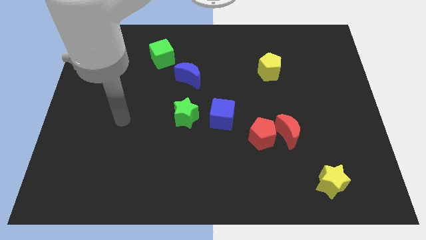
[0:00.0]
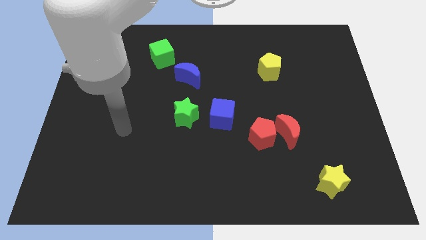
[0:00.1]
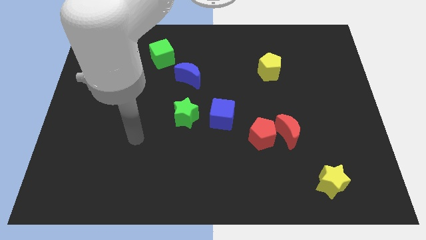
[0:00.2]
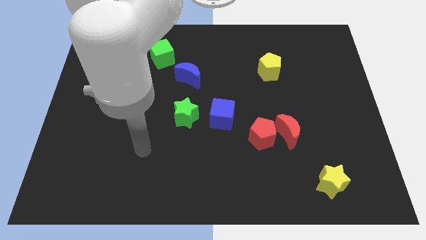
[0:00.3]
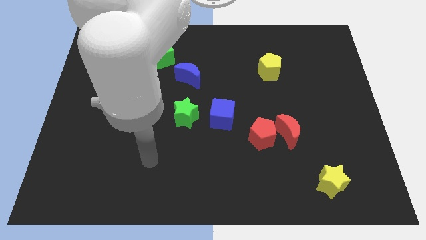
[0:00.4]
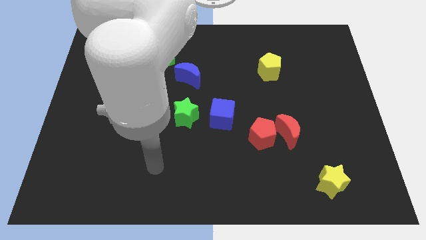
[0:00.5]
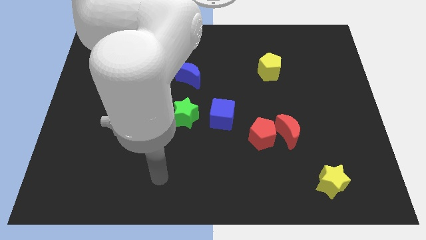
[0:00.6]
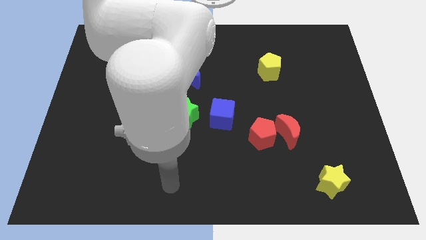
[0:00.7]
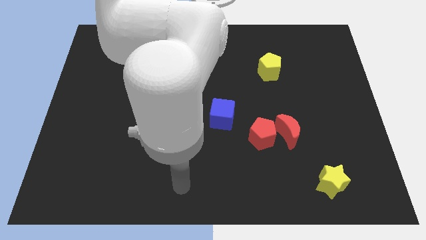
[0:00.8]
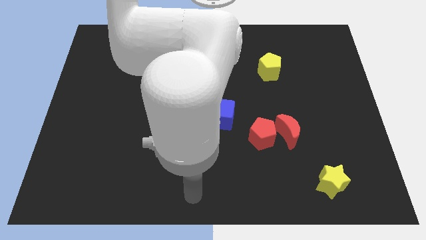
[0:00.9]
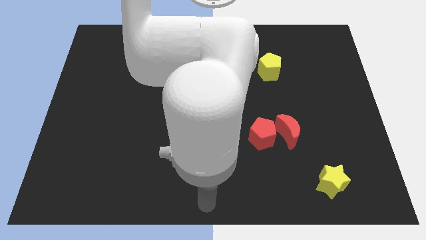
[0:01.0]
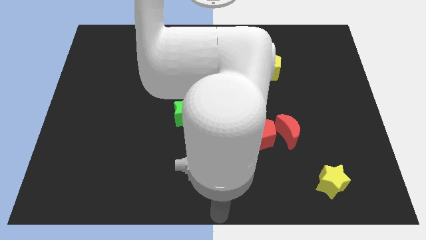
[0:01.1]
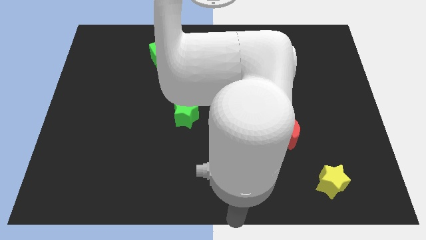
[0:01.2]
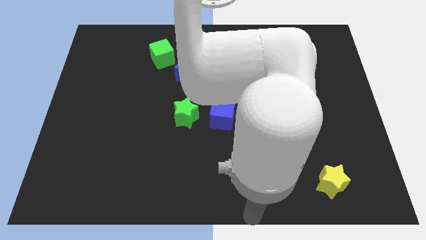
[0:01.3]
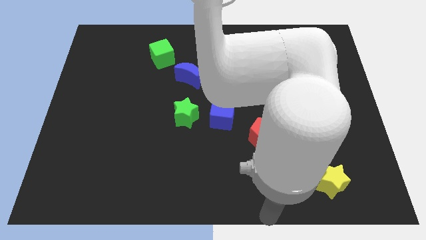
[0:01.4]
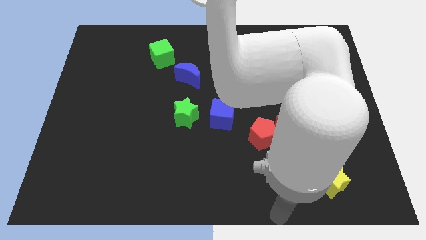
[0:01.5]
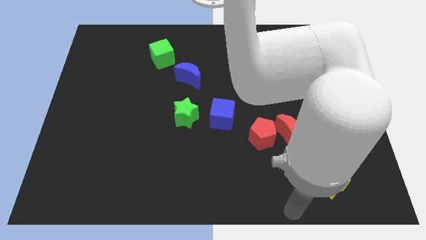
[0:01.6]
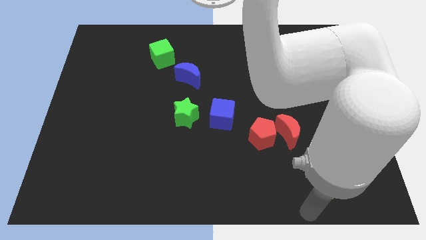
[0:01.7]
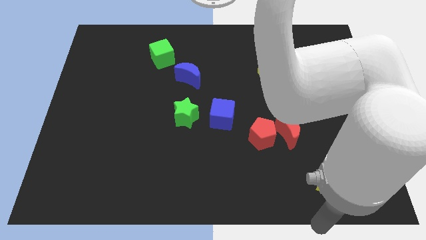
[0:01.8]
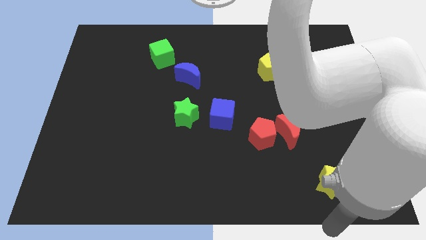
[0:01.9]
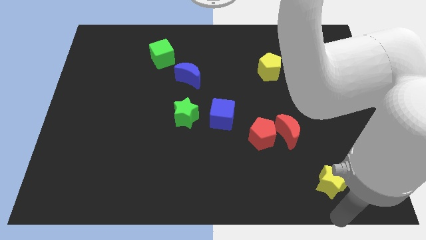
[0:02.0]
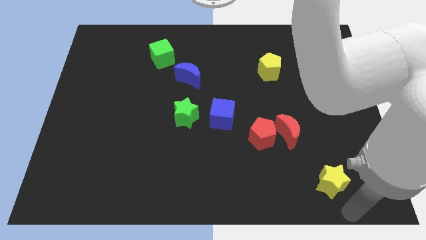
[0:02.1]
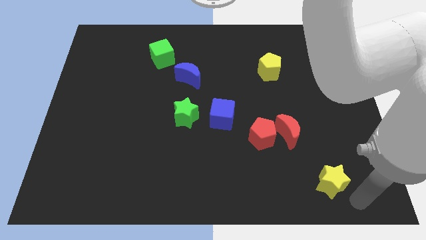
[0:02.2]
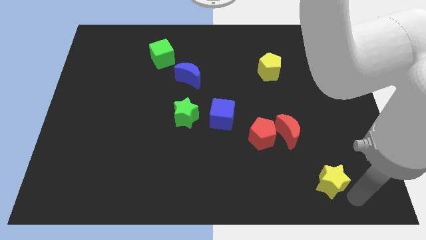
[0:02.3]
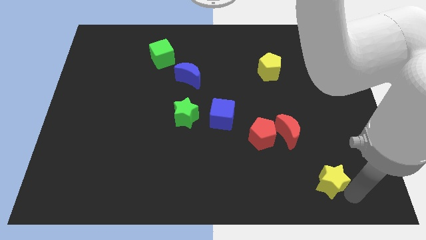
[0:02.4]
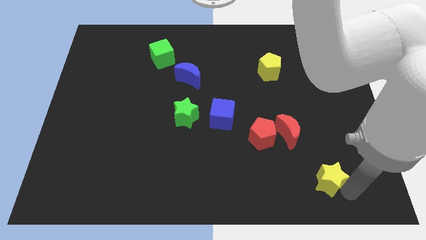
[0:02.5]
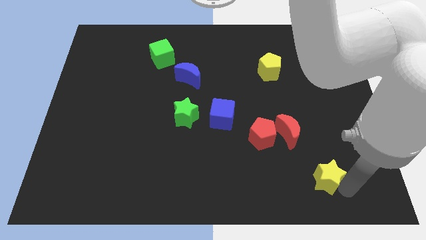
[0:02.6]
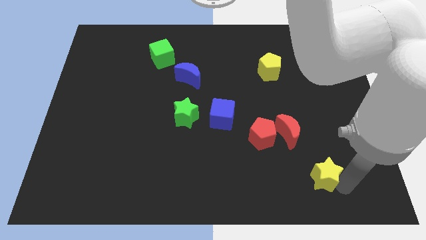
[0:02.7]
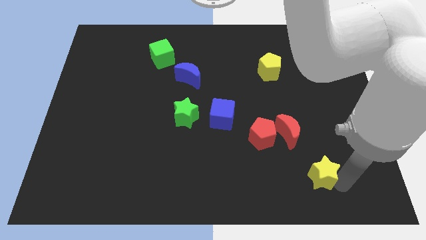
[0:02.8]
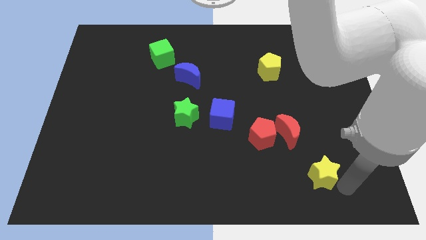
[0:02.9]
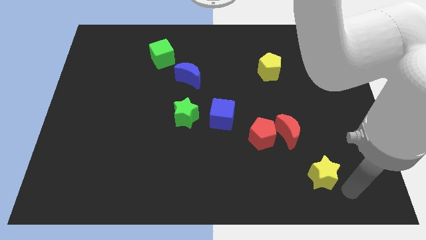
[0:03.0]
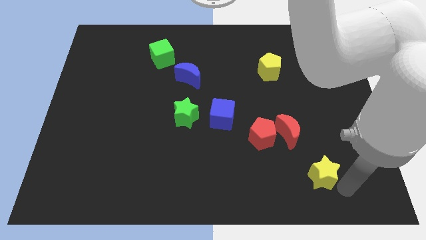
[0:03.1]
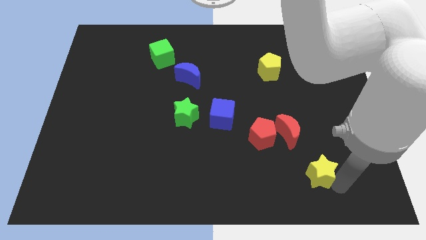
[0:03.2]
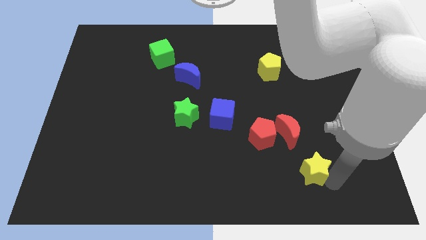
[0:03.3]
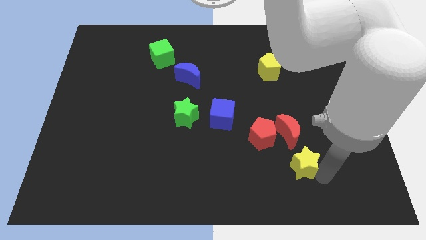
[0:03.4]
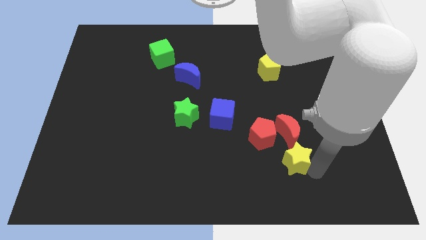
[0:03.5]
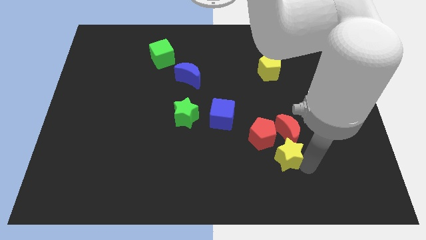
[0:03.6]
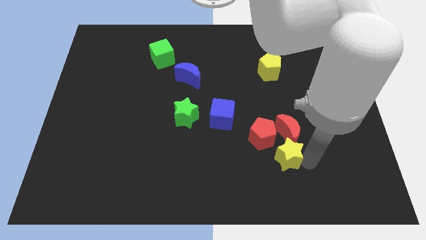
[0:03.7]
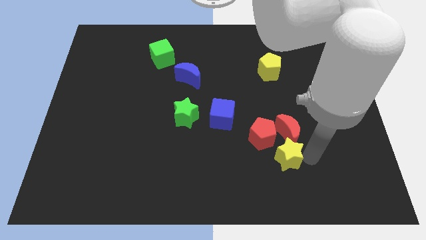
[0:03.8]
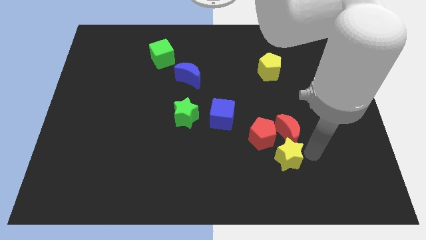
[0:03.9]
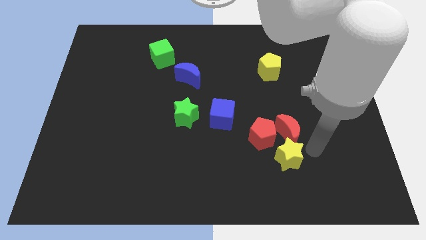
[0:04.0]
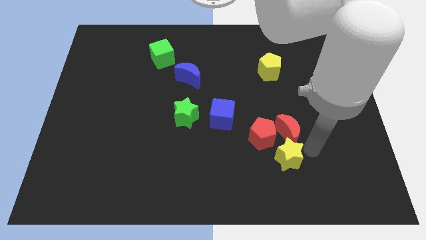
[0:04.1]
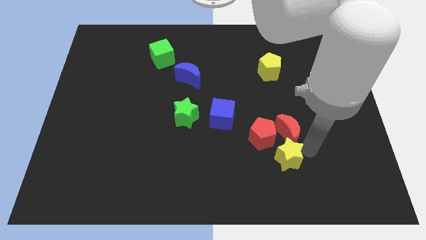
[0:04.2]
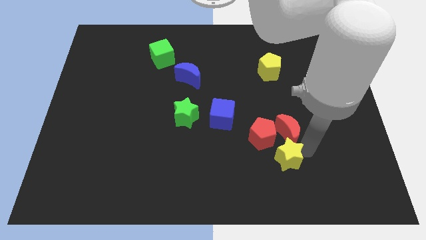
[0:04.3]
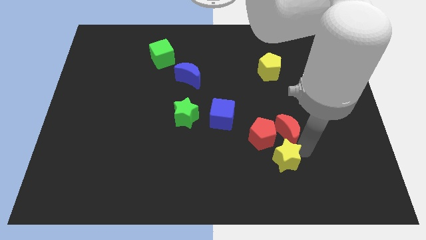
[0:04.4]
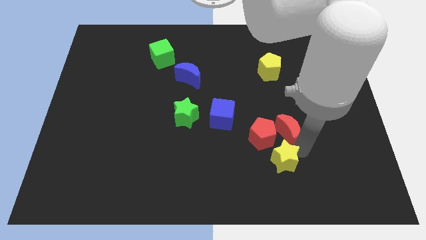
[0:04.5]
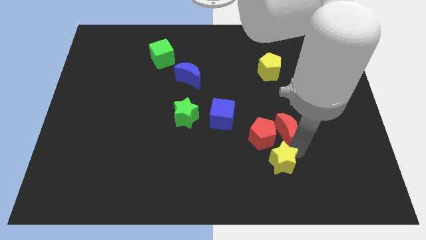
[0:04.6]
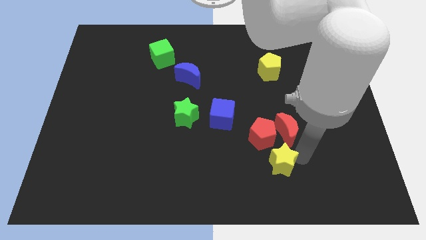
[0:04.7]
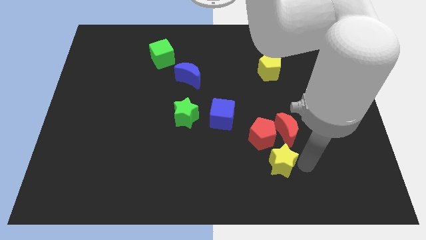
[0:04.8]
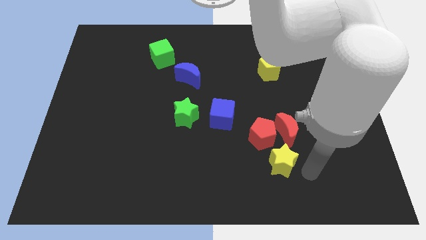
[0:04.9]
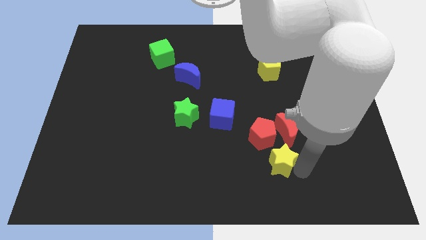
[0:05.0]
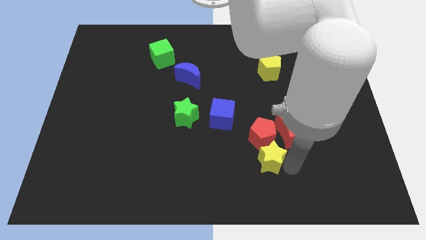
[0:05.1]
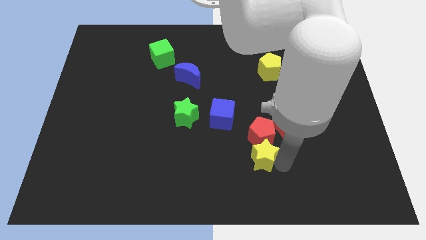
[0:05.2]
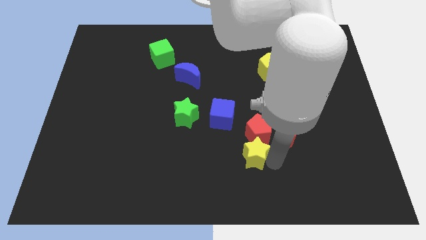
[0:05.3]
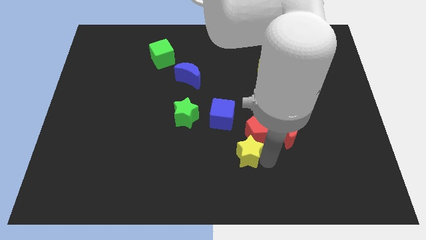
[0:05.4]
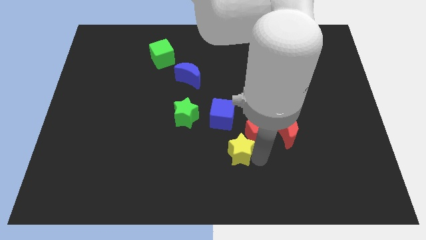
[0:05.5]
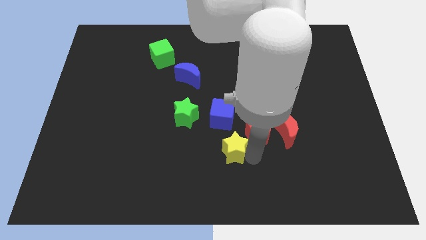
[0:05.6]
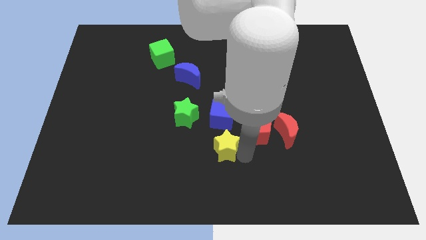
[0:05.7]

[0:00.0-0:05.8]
push the yellow star diagonally down and to the right of the green star

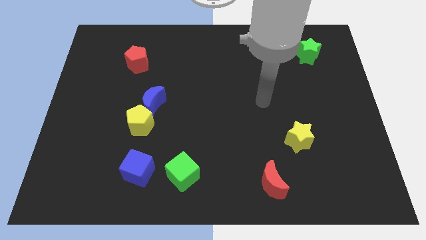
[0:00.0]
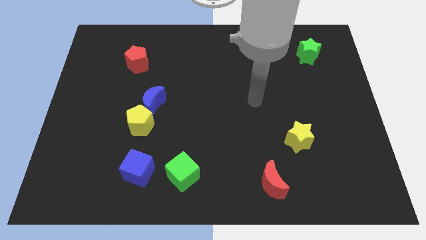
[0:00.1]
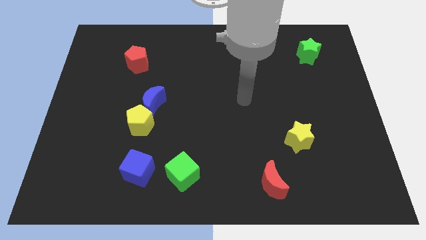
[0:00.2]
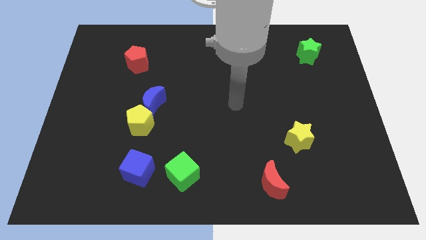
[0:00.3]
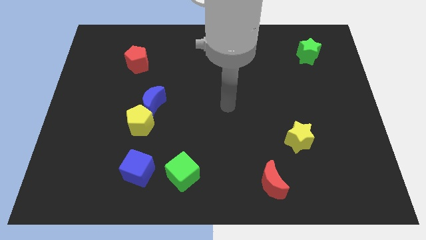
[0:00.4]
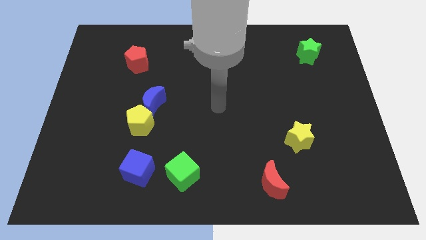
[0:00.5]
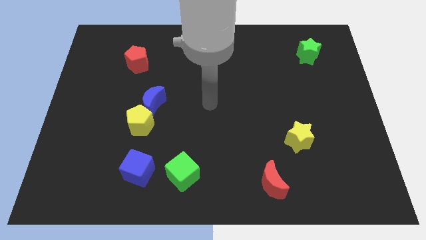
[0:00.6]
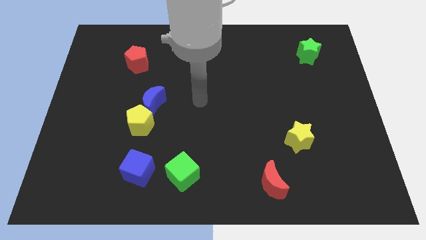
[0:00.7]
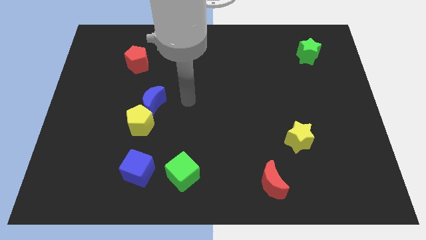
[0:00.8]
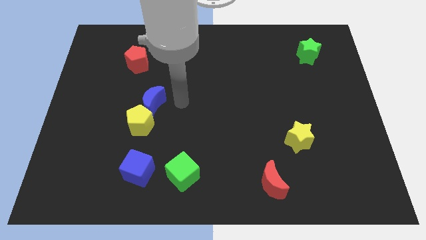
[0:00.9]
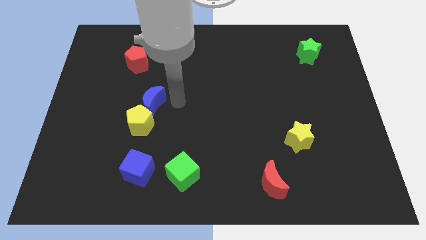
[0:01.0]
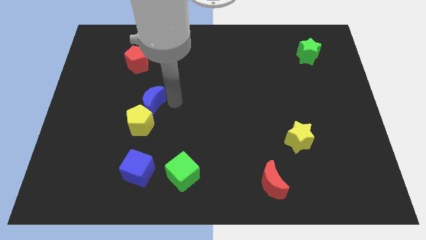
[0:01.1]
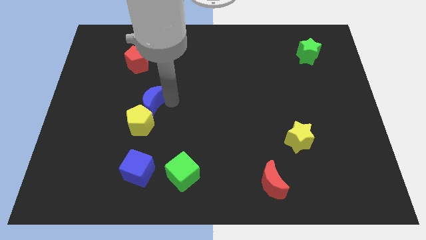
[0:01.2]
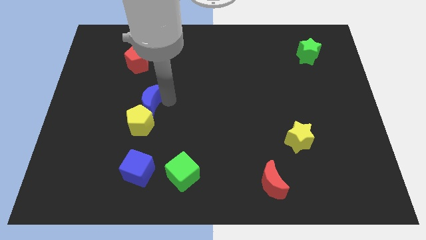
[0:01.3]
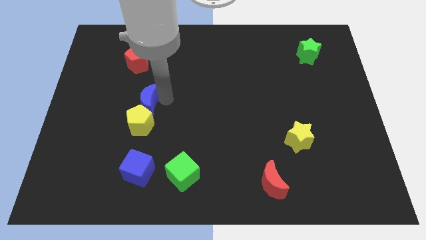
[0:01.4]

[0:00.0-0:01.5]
slide the blue moon to the top left of the yellow pentagon
